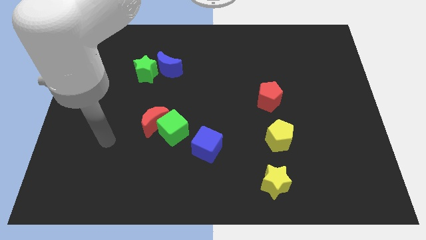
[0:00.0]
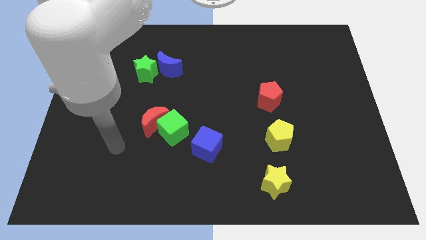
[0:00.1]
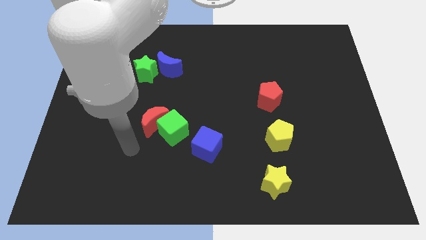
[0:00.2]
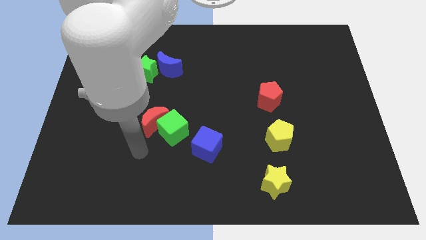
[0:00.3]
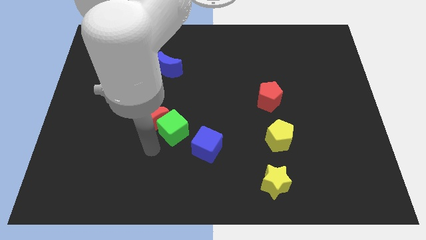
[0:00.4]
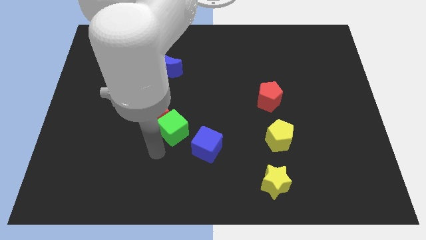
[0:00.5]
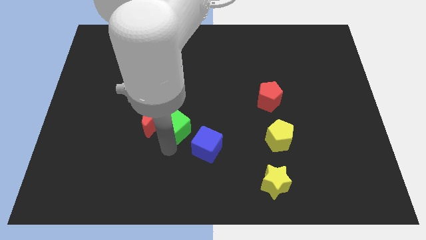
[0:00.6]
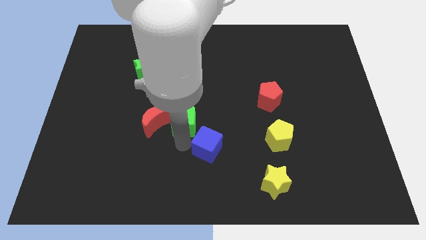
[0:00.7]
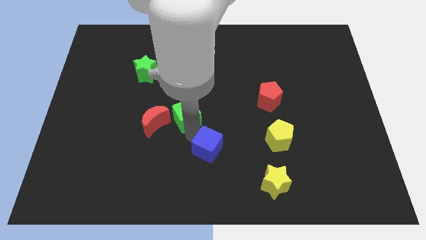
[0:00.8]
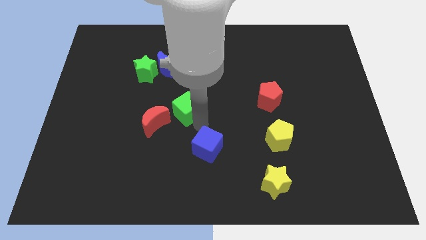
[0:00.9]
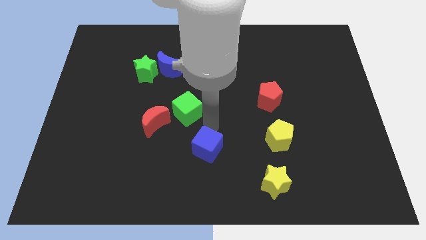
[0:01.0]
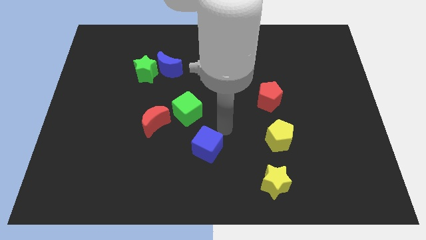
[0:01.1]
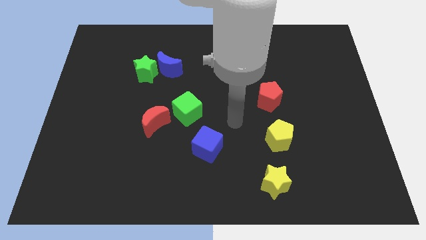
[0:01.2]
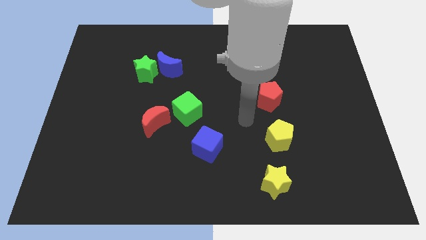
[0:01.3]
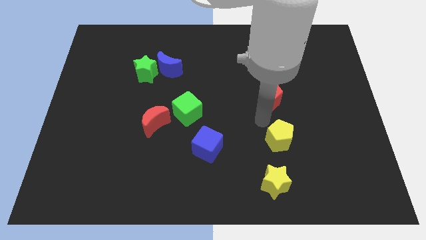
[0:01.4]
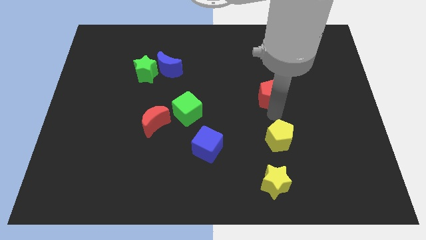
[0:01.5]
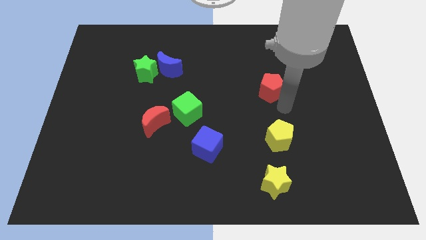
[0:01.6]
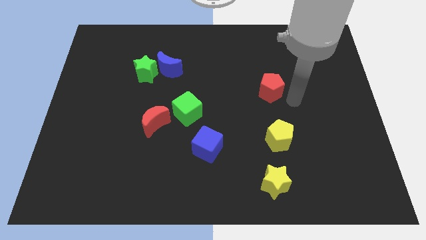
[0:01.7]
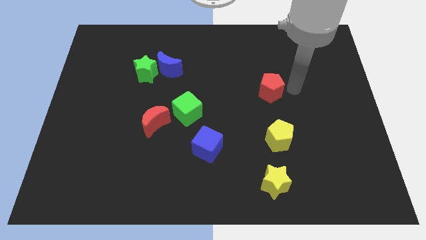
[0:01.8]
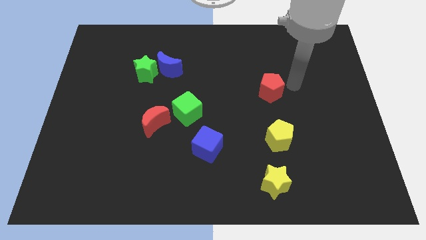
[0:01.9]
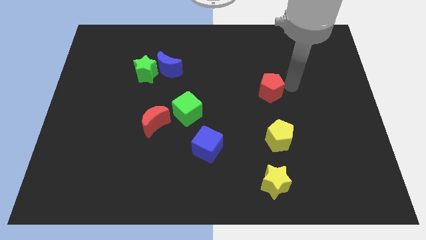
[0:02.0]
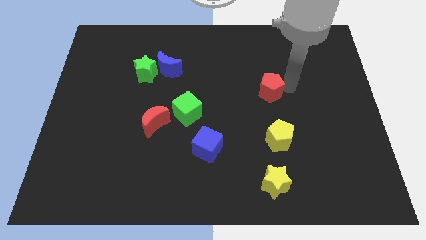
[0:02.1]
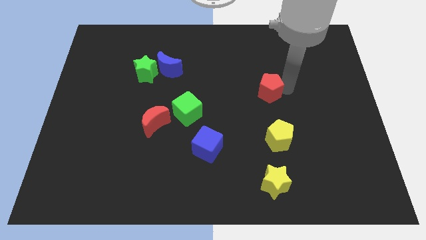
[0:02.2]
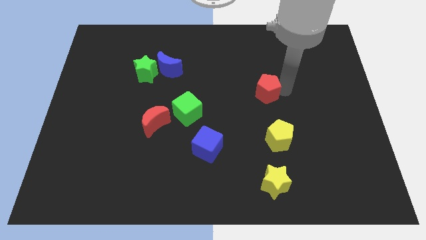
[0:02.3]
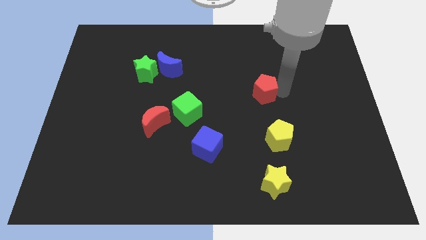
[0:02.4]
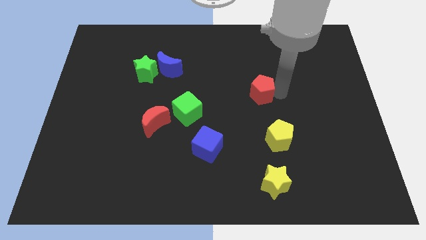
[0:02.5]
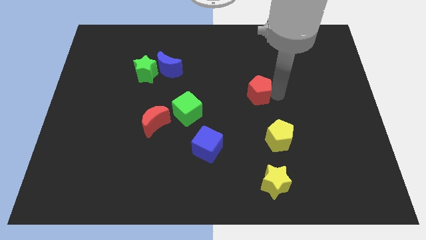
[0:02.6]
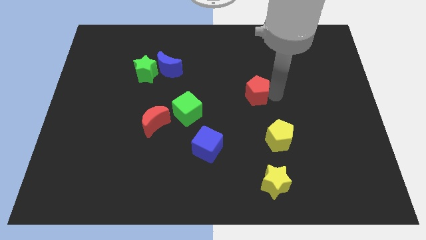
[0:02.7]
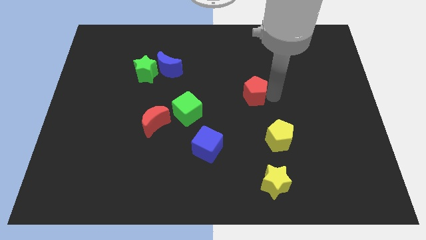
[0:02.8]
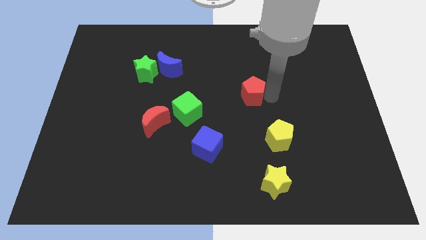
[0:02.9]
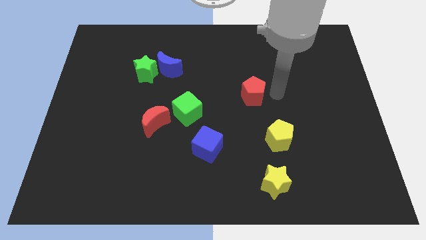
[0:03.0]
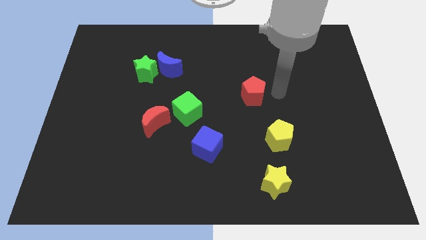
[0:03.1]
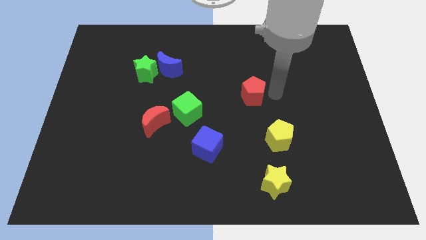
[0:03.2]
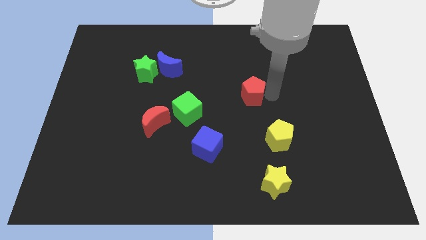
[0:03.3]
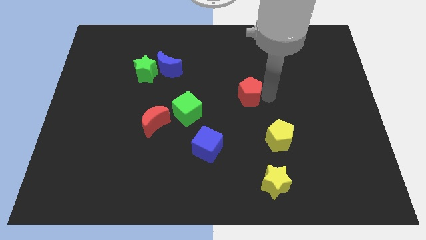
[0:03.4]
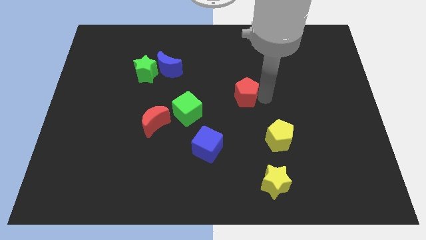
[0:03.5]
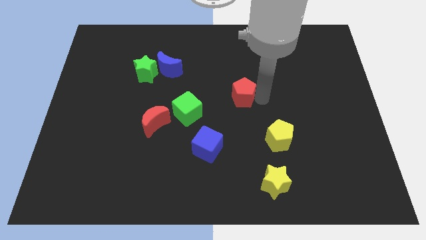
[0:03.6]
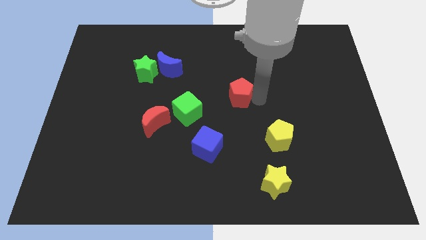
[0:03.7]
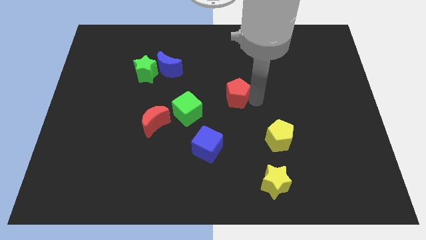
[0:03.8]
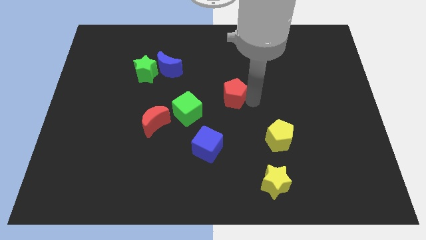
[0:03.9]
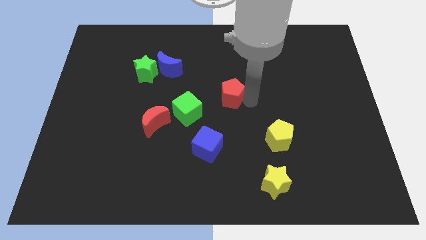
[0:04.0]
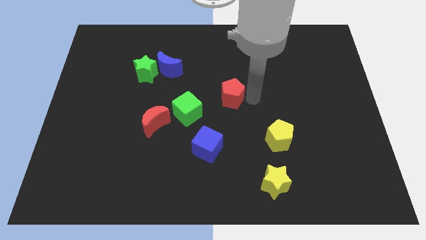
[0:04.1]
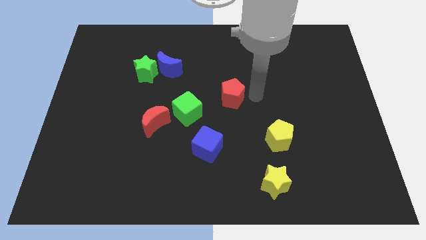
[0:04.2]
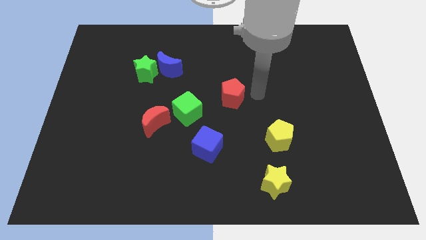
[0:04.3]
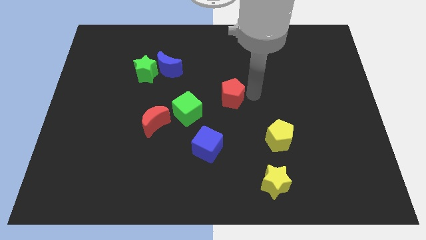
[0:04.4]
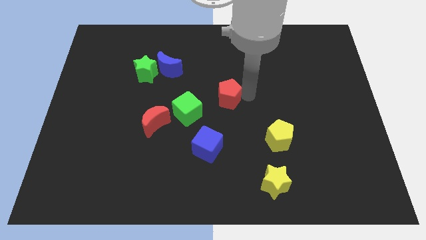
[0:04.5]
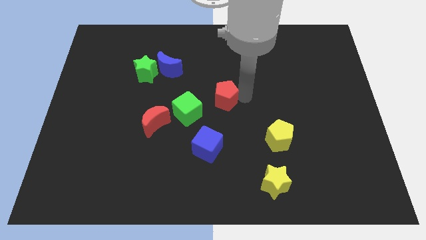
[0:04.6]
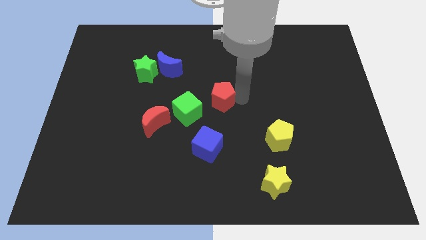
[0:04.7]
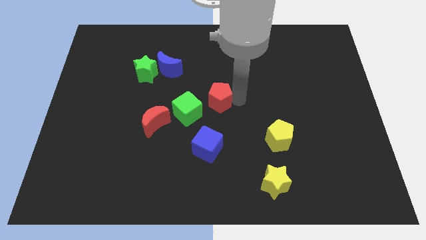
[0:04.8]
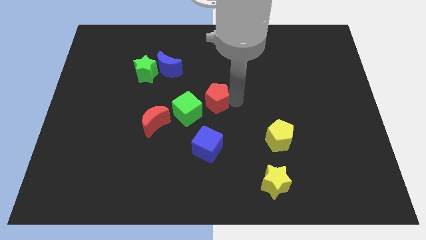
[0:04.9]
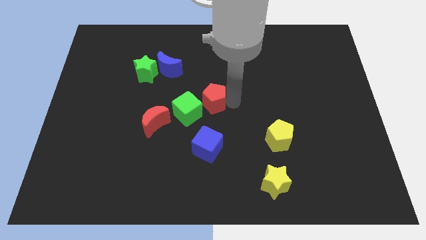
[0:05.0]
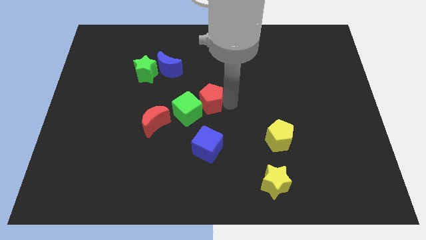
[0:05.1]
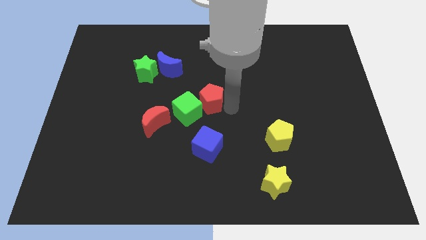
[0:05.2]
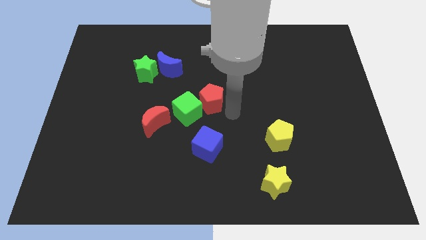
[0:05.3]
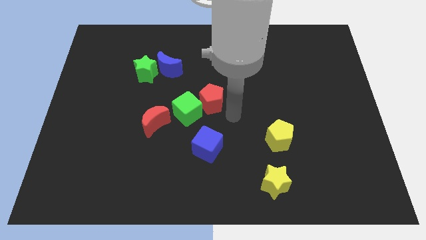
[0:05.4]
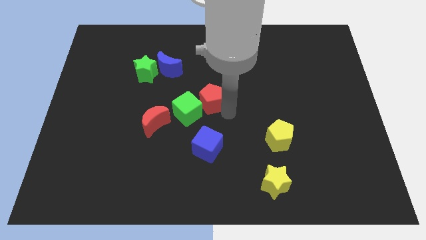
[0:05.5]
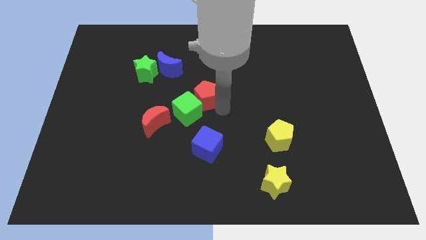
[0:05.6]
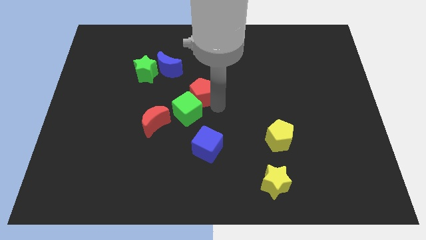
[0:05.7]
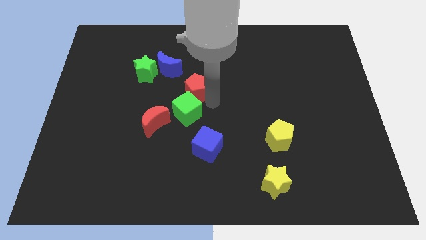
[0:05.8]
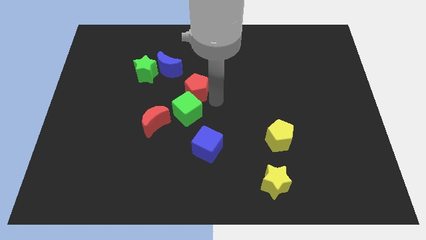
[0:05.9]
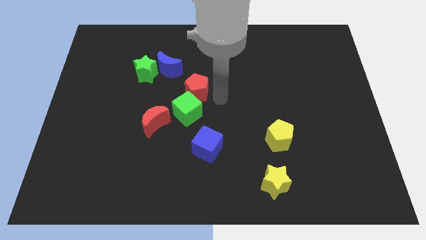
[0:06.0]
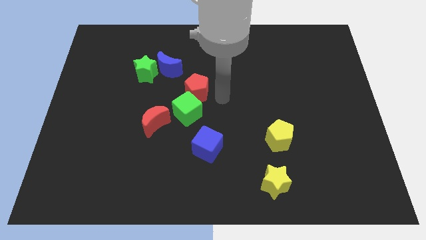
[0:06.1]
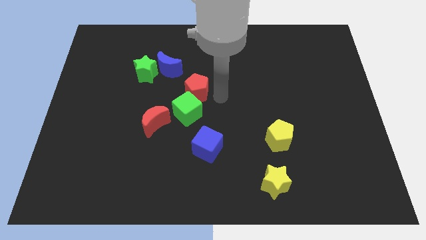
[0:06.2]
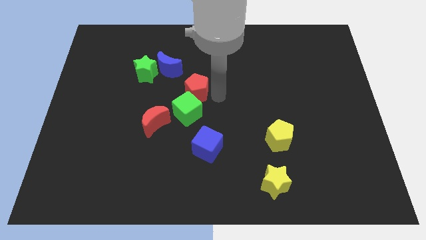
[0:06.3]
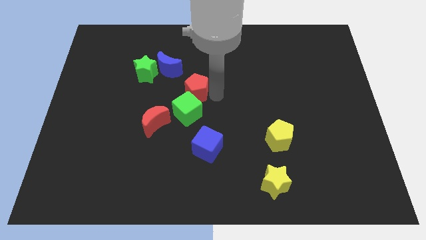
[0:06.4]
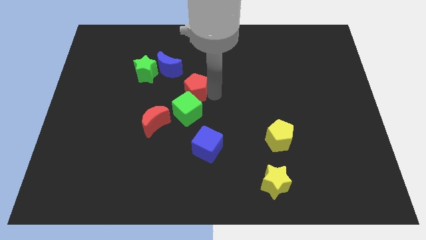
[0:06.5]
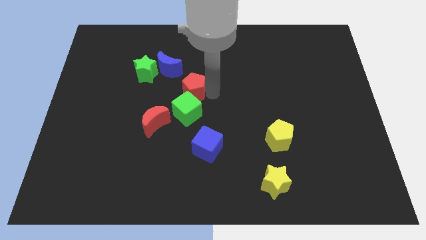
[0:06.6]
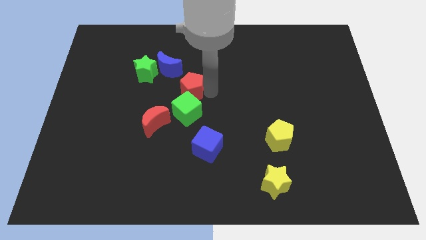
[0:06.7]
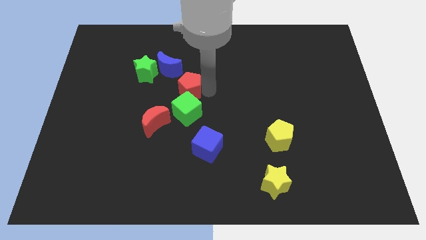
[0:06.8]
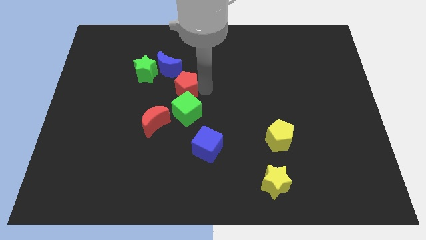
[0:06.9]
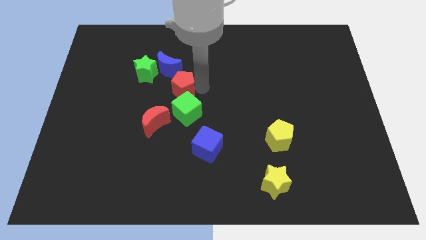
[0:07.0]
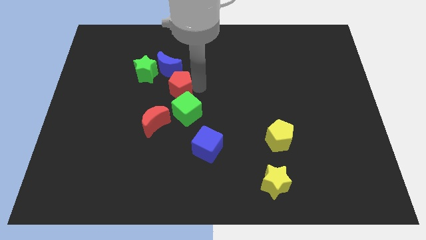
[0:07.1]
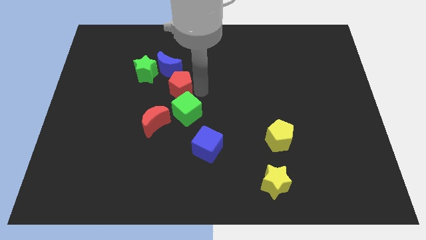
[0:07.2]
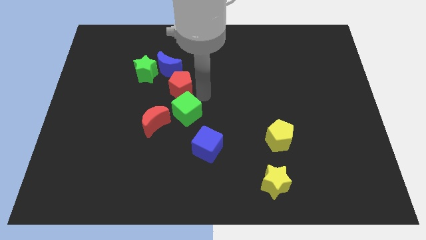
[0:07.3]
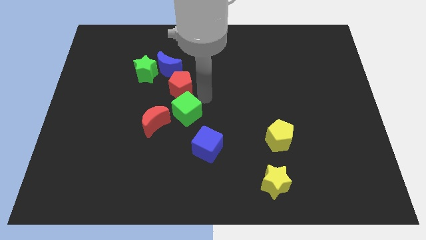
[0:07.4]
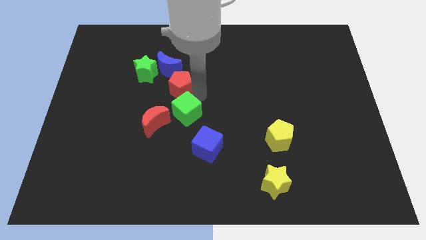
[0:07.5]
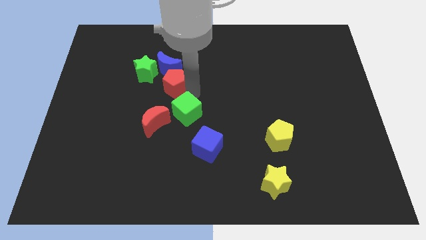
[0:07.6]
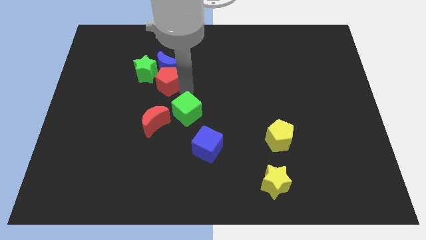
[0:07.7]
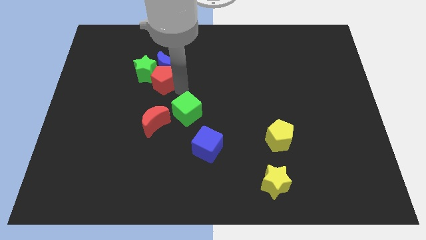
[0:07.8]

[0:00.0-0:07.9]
put the red pentagon next to the green star
